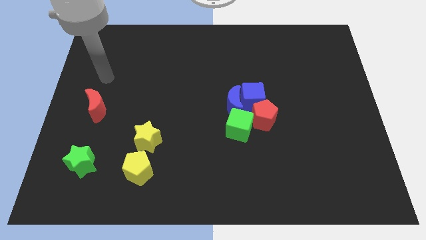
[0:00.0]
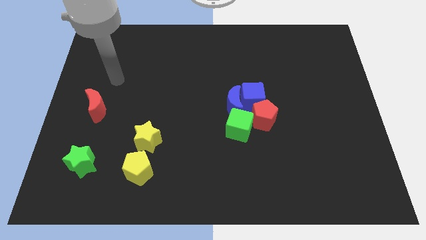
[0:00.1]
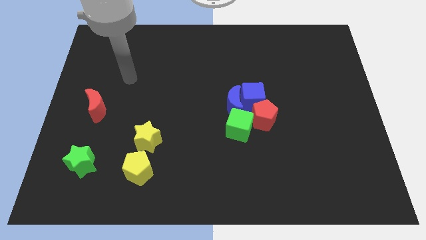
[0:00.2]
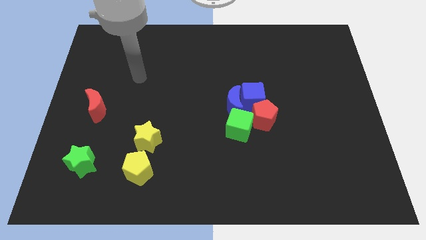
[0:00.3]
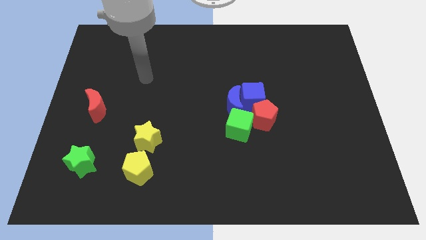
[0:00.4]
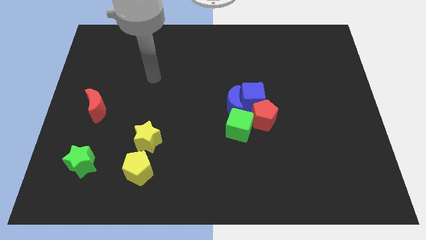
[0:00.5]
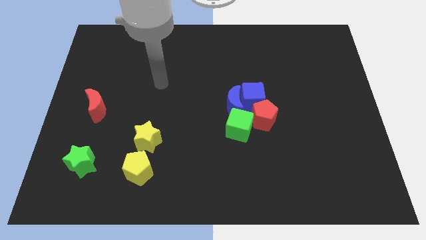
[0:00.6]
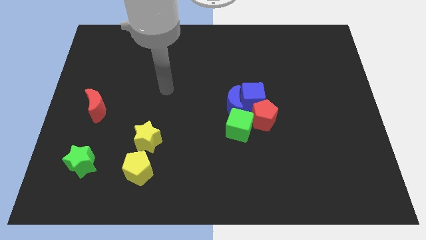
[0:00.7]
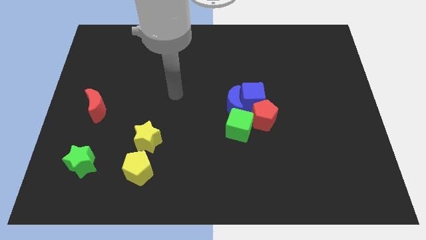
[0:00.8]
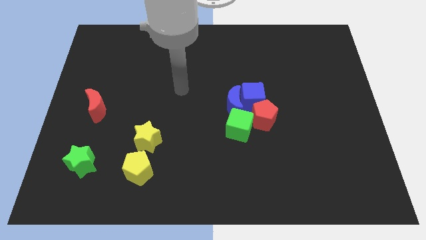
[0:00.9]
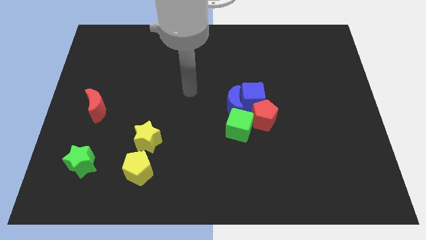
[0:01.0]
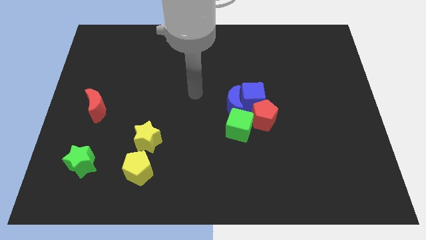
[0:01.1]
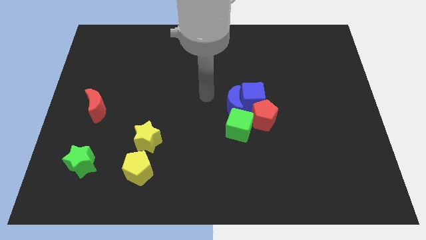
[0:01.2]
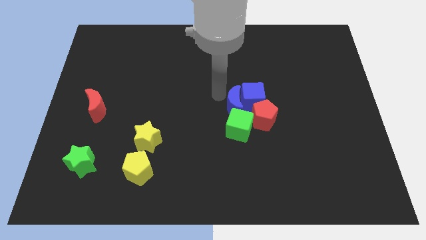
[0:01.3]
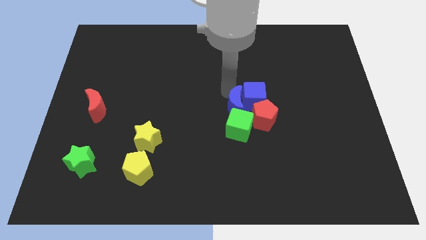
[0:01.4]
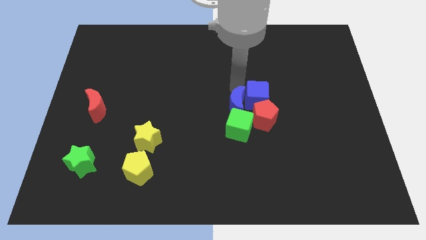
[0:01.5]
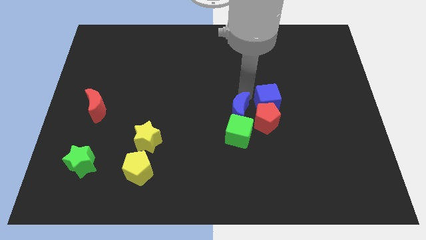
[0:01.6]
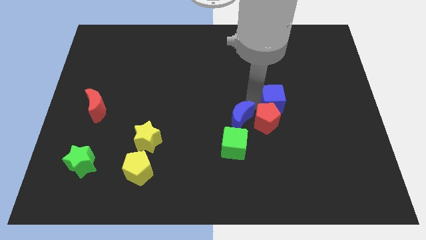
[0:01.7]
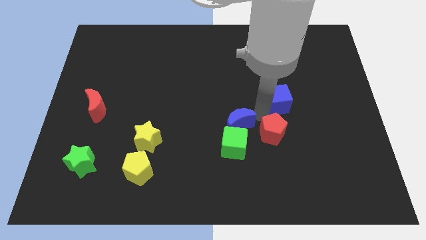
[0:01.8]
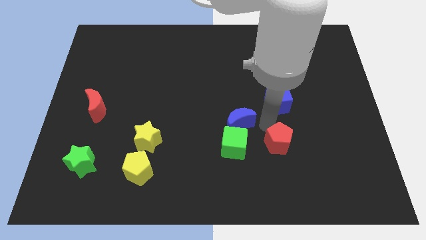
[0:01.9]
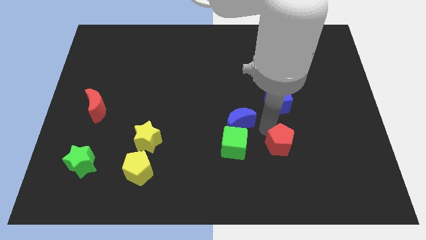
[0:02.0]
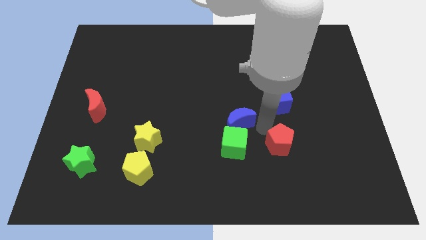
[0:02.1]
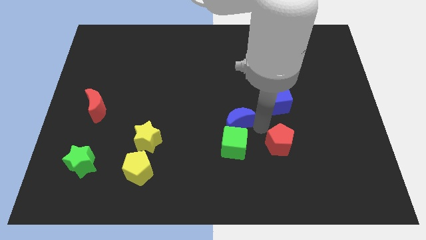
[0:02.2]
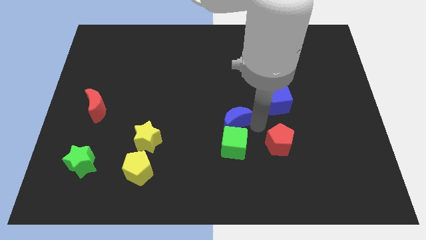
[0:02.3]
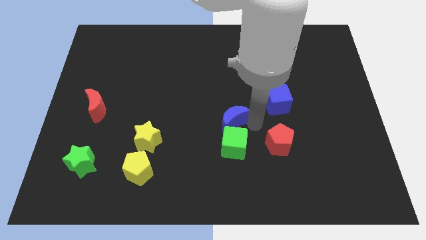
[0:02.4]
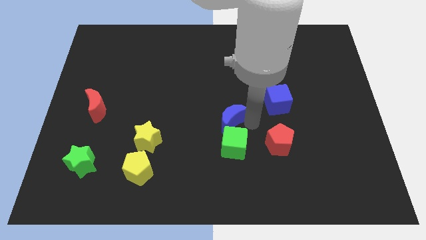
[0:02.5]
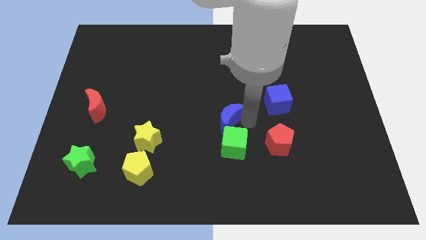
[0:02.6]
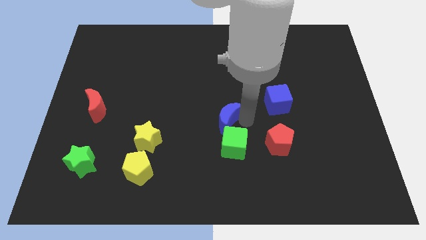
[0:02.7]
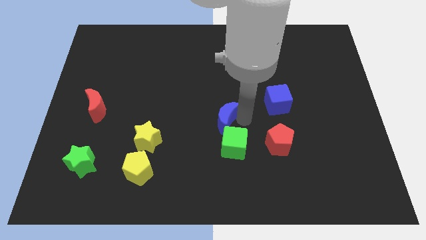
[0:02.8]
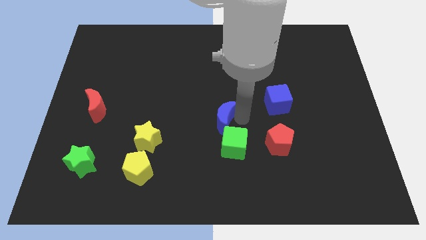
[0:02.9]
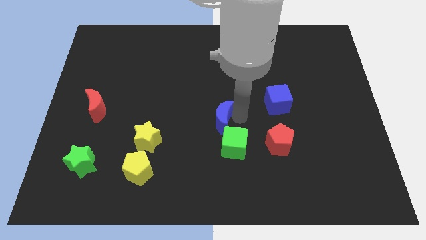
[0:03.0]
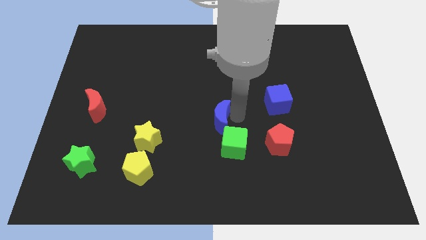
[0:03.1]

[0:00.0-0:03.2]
separate the blue moon from the blue cube, green cube, and red pentagon

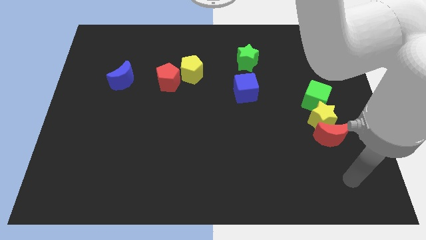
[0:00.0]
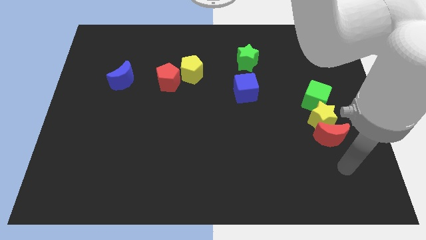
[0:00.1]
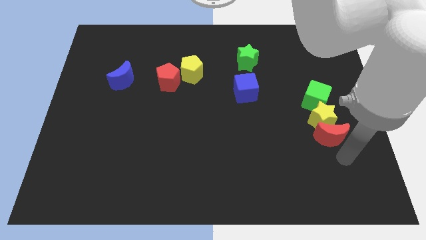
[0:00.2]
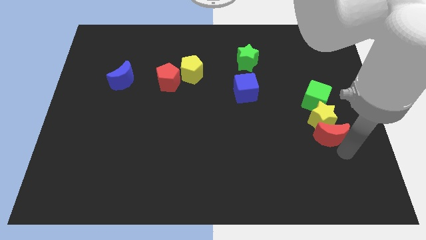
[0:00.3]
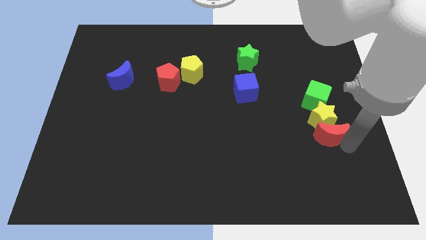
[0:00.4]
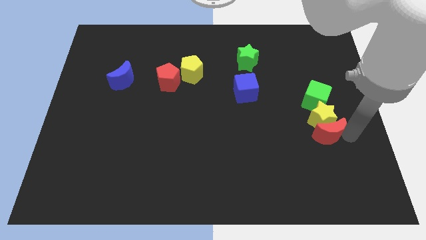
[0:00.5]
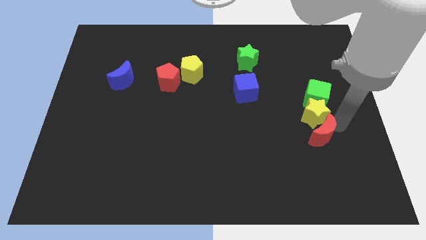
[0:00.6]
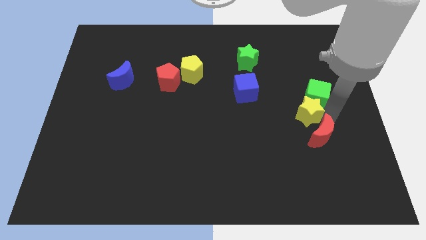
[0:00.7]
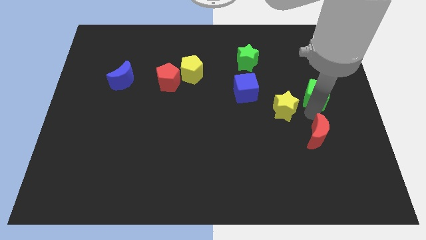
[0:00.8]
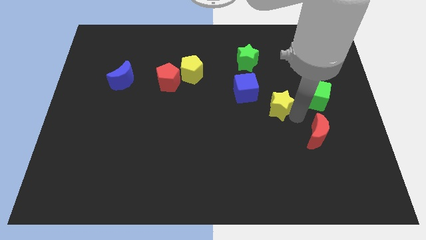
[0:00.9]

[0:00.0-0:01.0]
separate the red moon from the yellow star

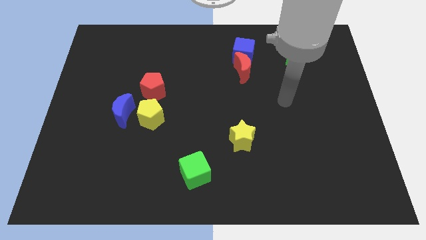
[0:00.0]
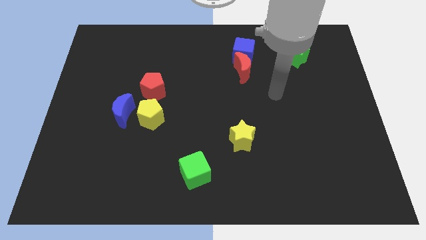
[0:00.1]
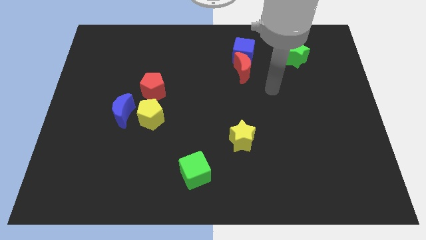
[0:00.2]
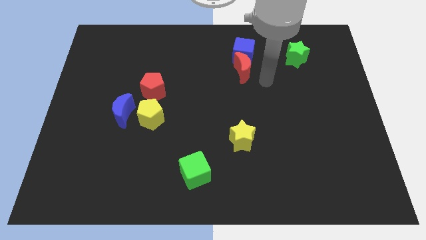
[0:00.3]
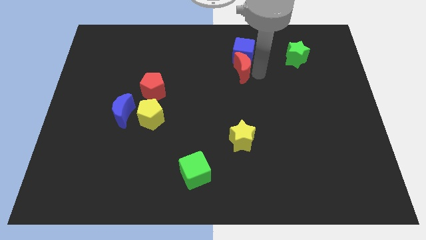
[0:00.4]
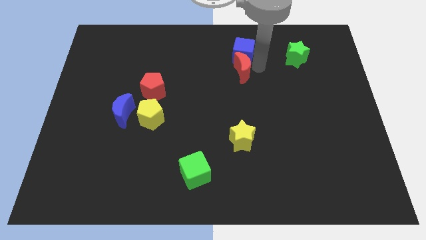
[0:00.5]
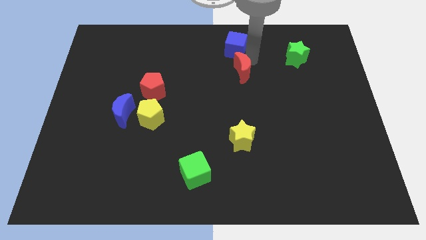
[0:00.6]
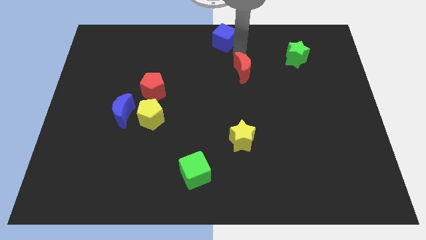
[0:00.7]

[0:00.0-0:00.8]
move the red moon away from the blue cube

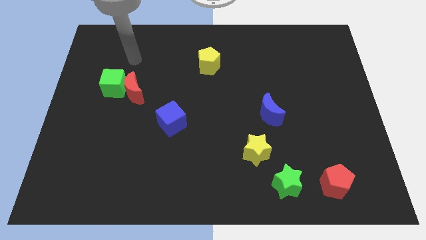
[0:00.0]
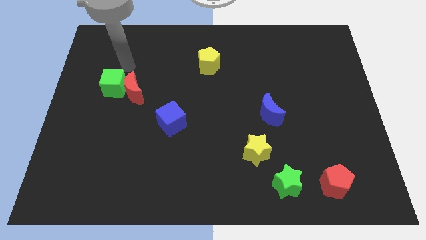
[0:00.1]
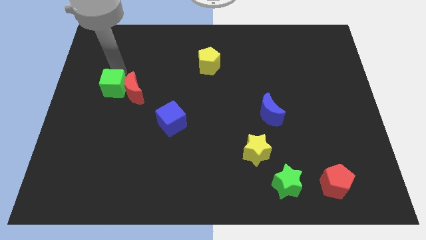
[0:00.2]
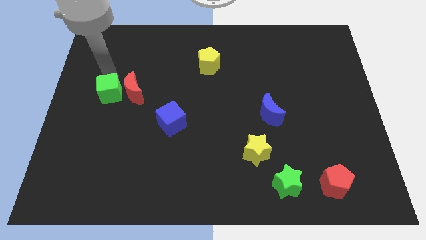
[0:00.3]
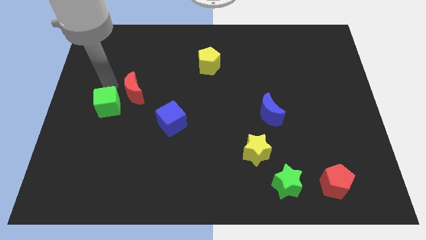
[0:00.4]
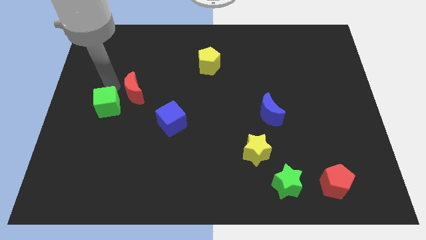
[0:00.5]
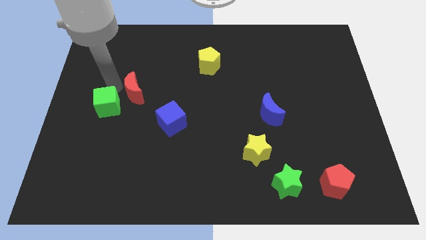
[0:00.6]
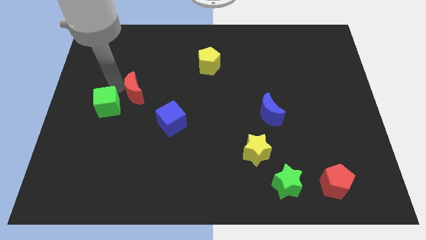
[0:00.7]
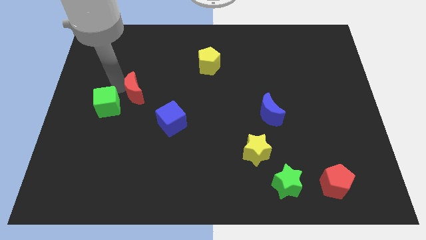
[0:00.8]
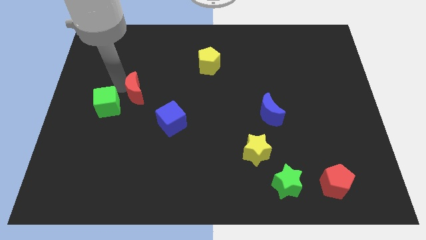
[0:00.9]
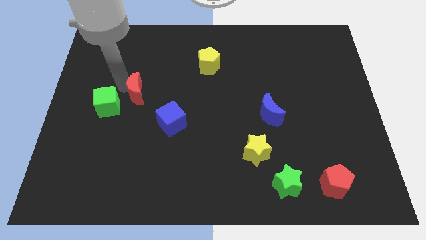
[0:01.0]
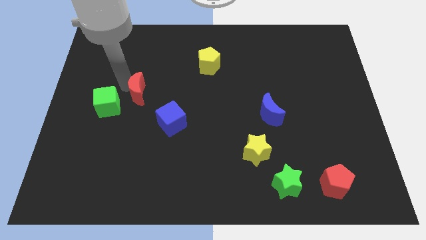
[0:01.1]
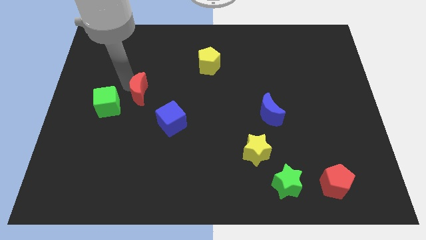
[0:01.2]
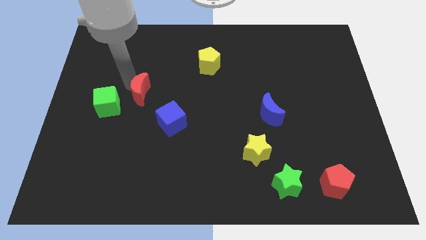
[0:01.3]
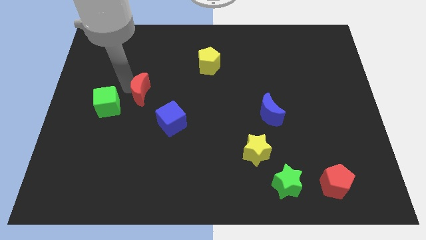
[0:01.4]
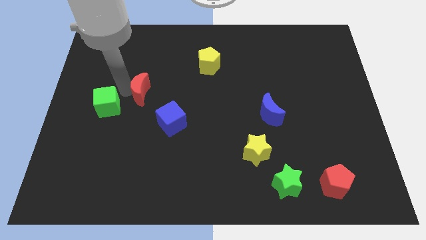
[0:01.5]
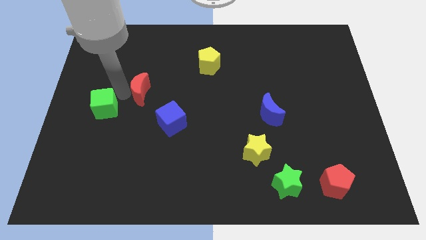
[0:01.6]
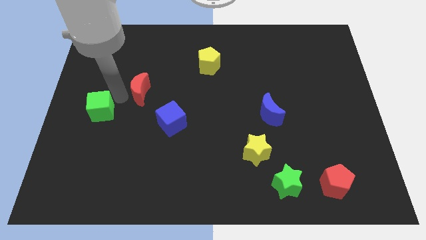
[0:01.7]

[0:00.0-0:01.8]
move the red moon away from the green cube

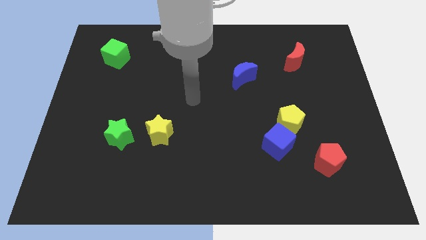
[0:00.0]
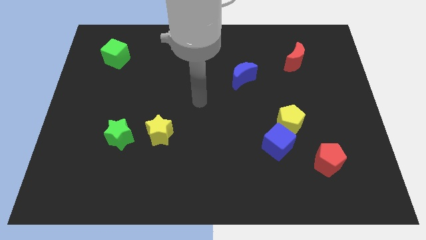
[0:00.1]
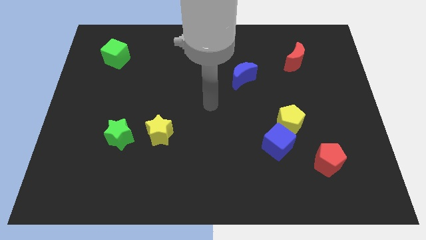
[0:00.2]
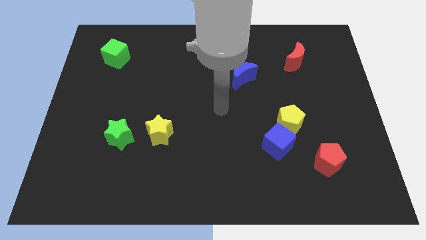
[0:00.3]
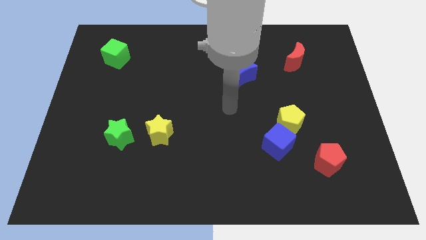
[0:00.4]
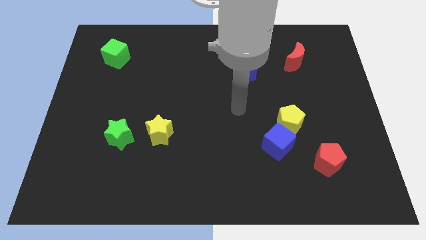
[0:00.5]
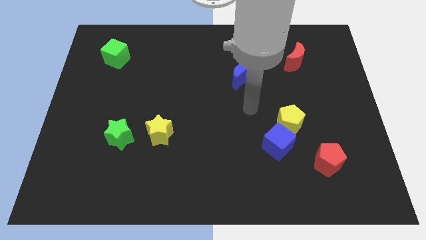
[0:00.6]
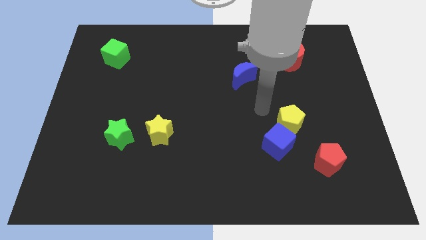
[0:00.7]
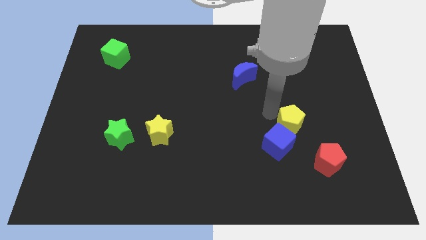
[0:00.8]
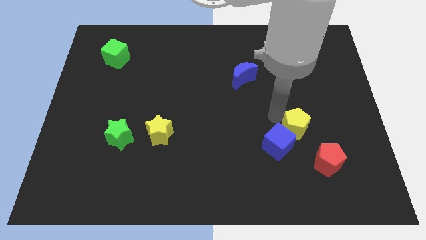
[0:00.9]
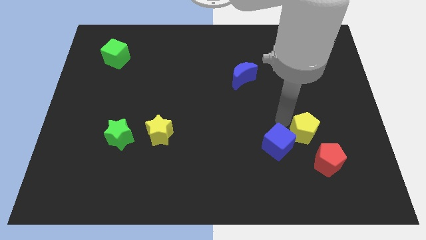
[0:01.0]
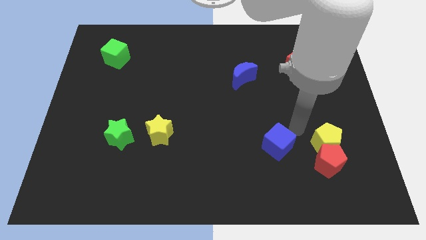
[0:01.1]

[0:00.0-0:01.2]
move the blue cube away from the yellow pentagon

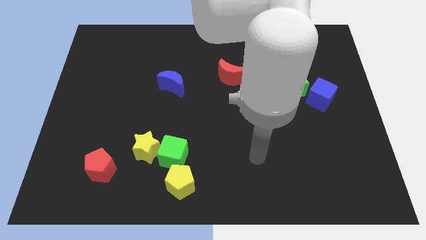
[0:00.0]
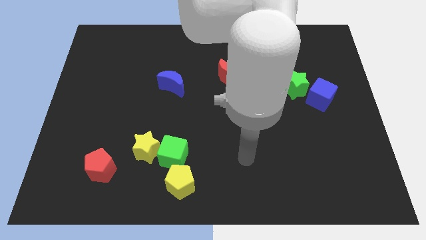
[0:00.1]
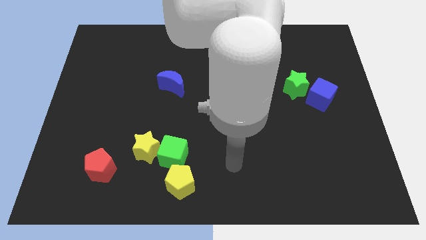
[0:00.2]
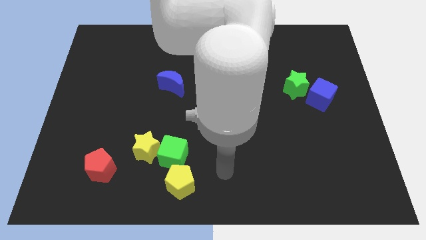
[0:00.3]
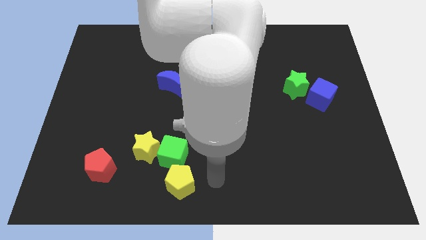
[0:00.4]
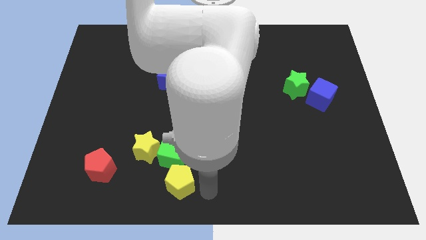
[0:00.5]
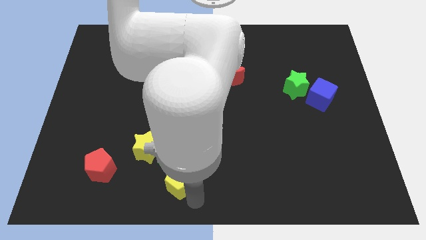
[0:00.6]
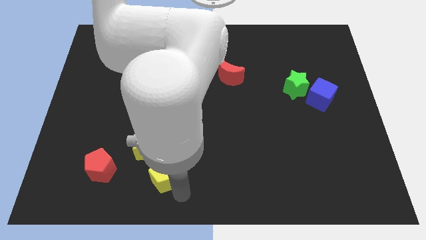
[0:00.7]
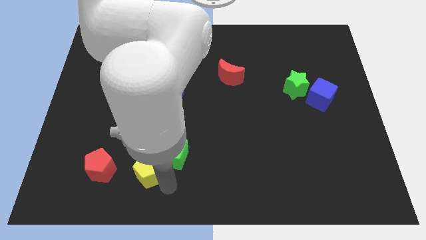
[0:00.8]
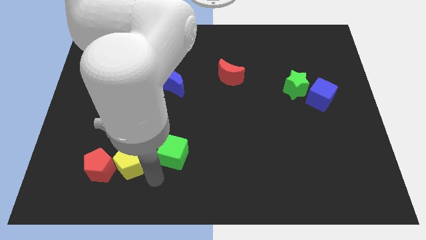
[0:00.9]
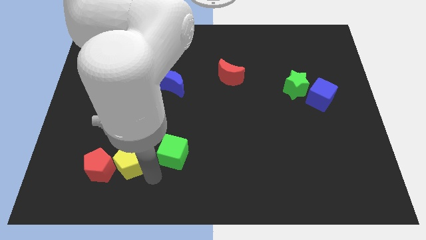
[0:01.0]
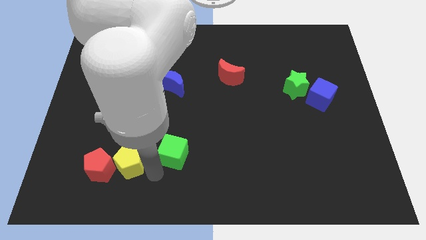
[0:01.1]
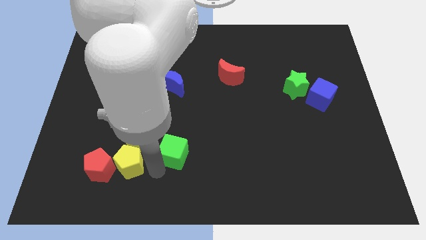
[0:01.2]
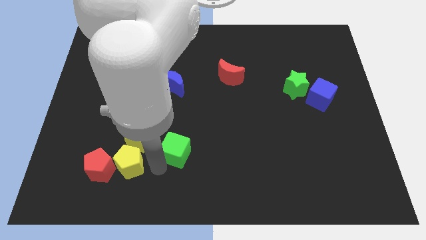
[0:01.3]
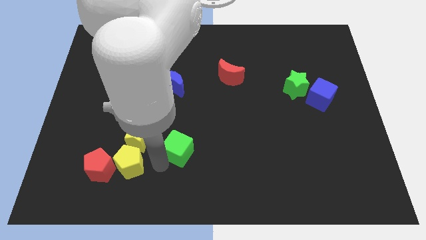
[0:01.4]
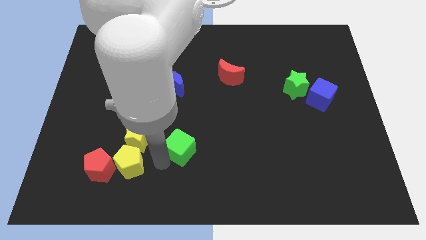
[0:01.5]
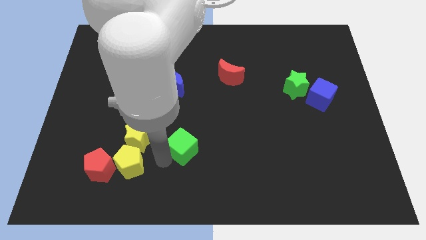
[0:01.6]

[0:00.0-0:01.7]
move the green cube away from the yellow star and yellow pentagon
